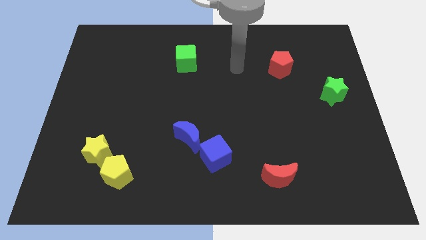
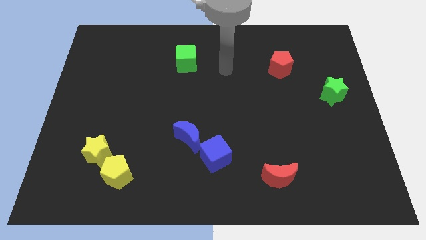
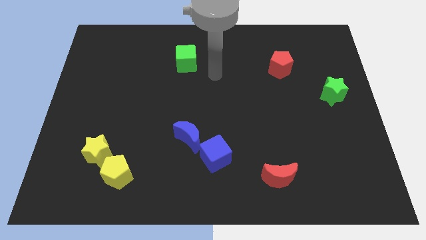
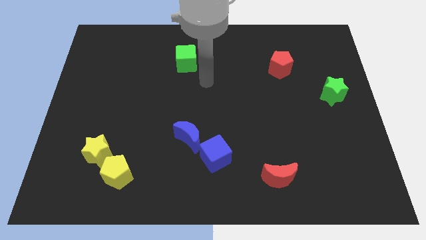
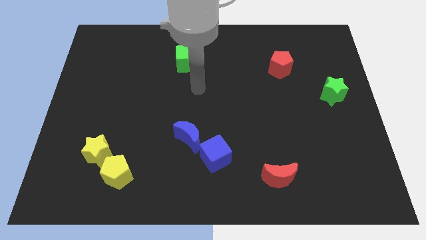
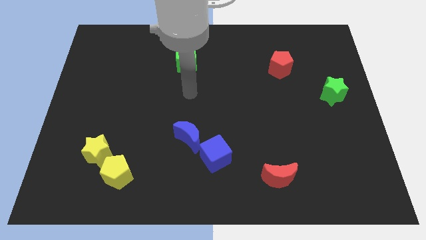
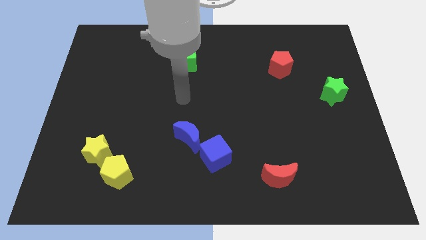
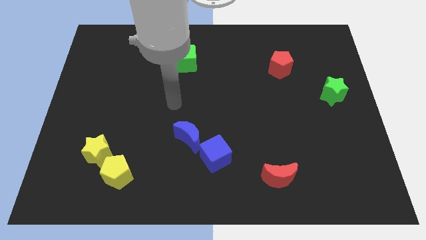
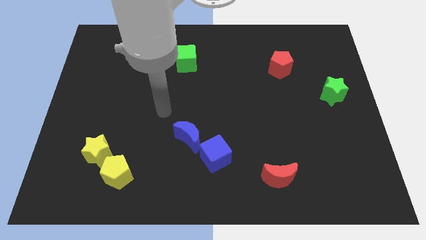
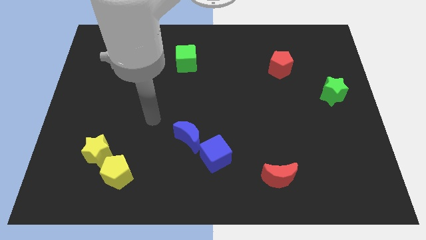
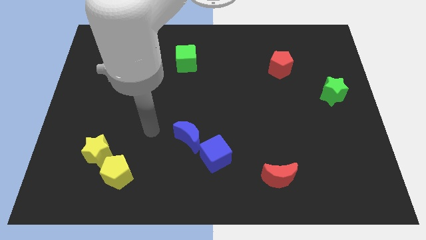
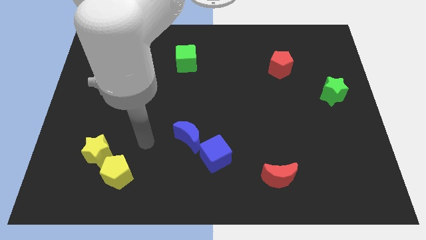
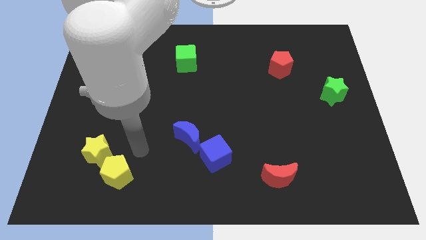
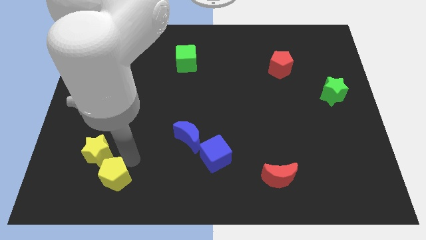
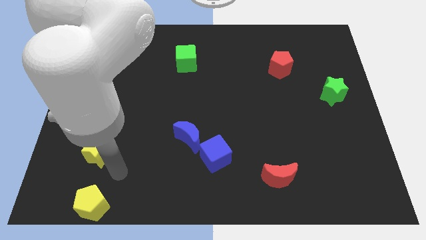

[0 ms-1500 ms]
pull the yellow star apart from the yellow pentagon

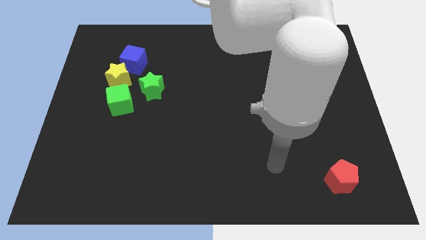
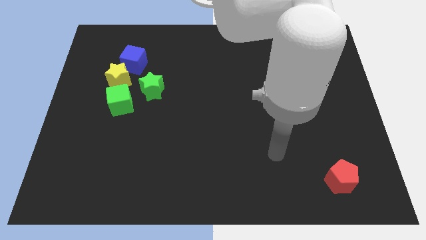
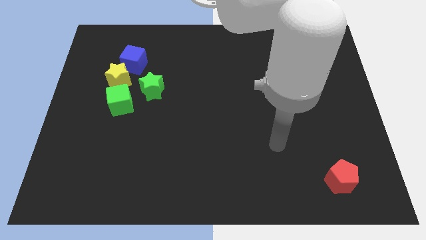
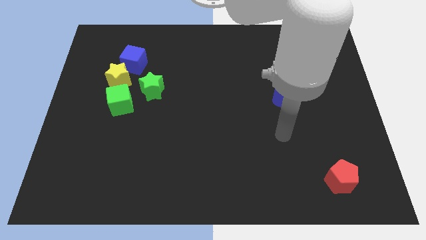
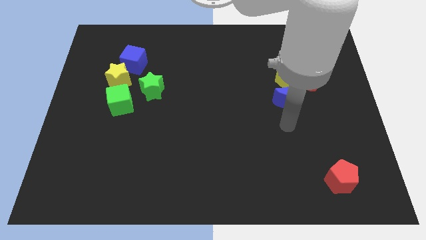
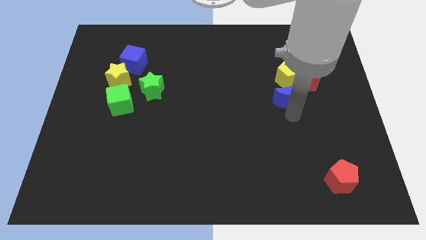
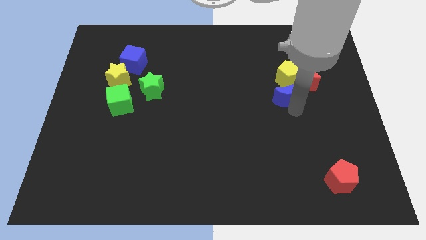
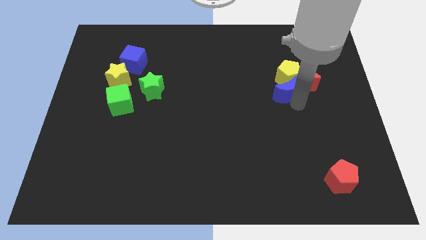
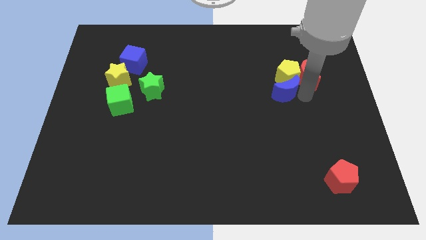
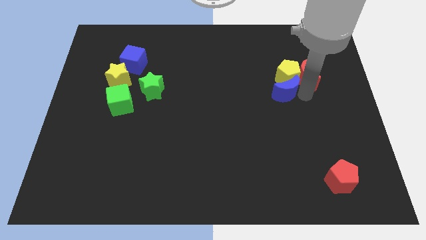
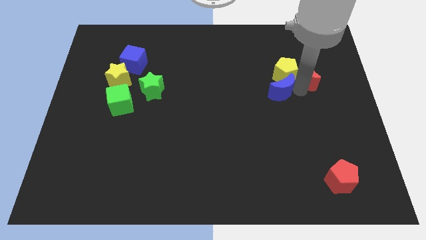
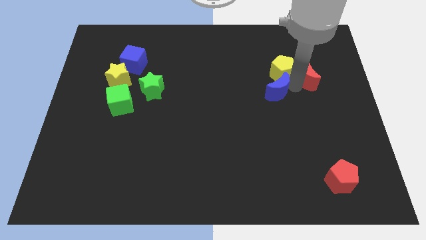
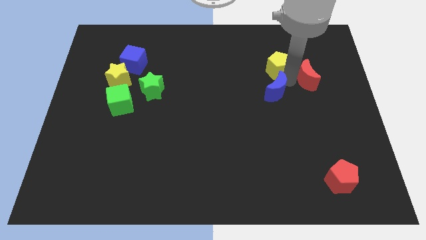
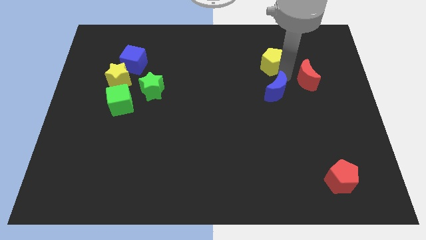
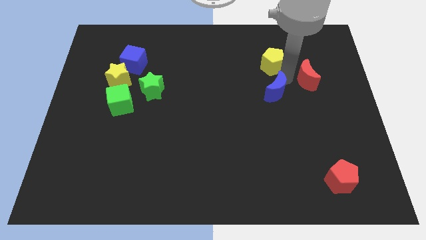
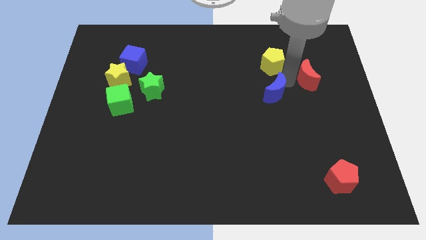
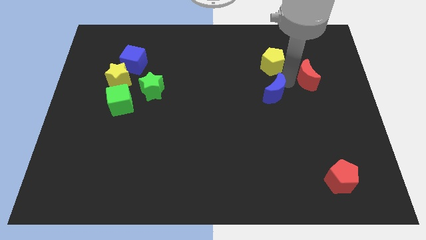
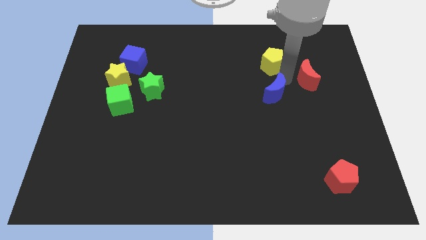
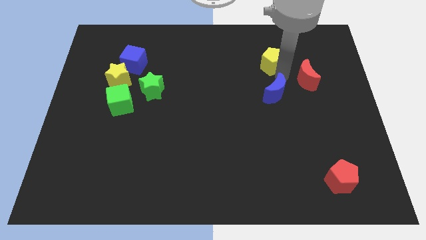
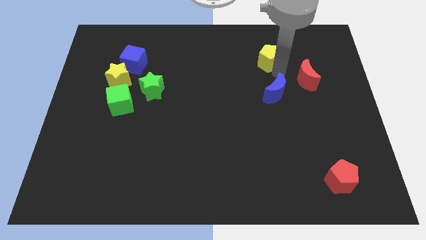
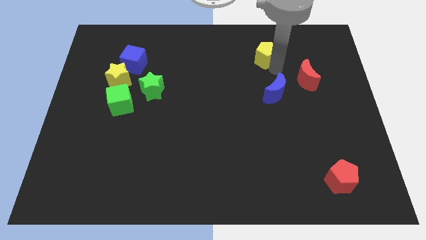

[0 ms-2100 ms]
pull the yellow pentagon apart from the red moon and blue moon

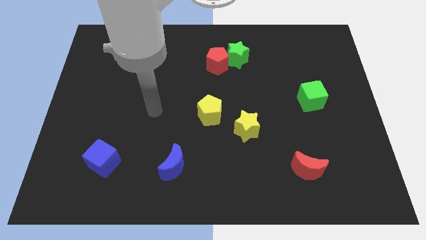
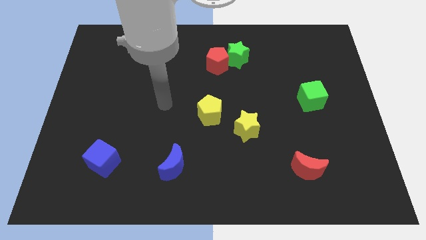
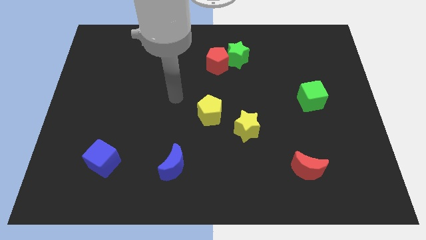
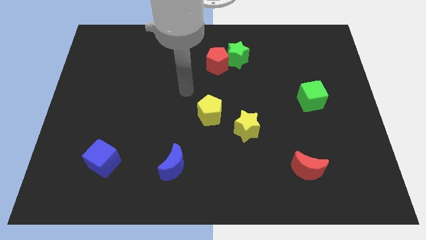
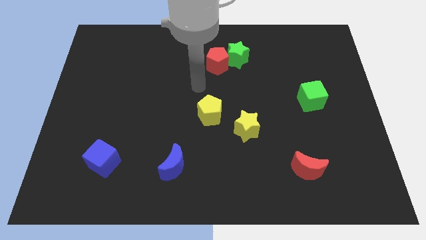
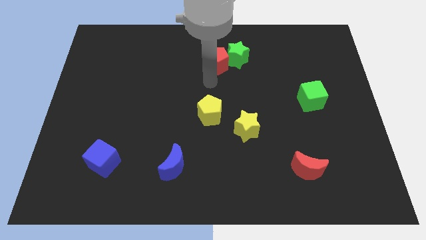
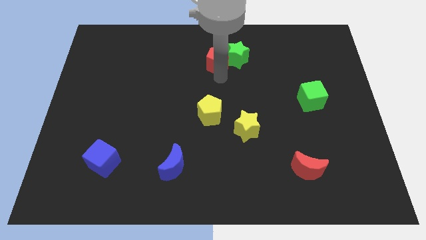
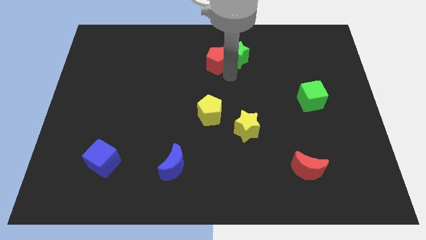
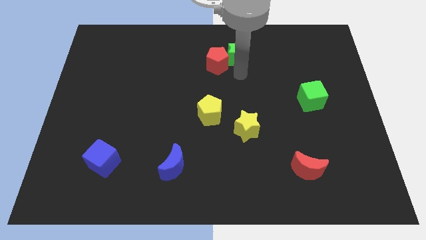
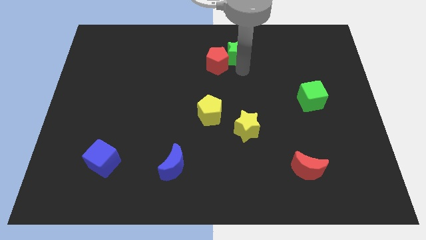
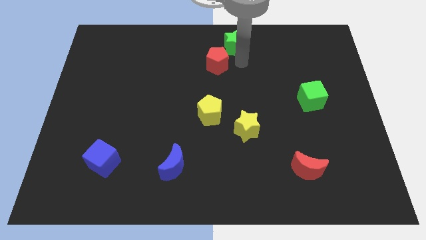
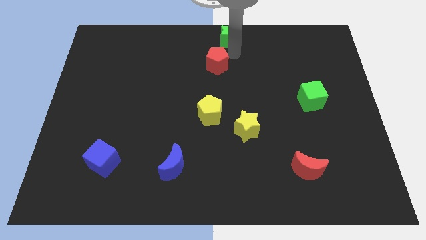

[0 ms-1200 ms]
pull the red pentagon apart from the green star

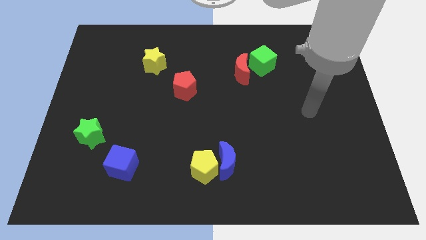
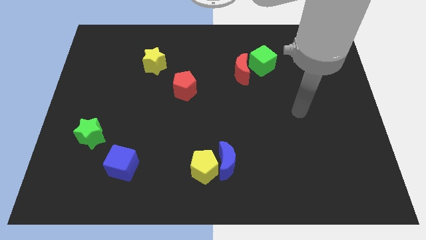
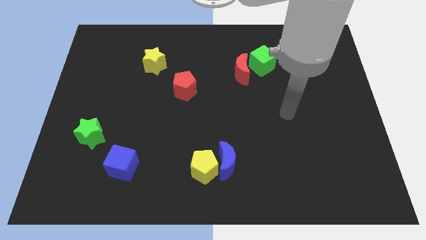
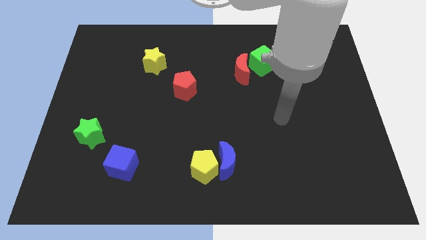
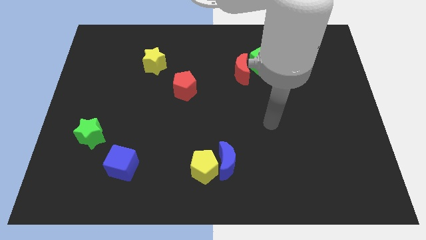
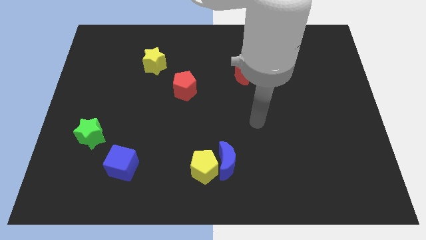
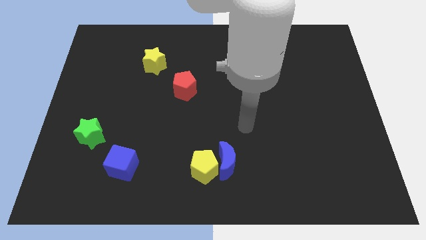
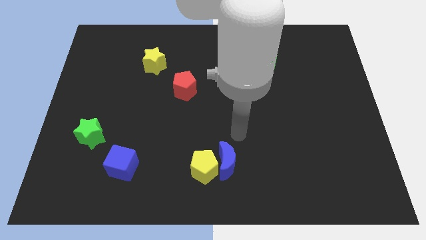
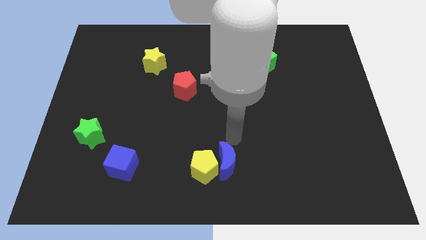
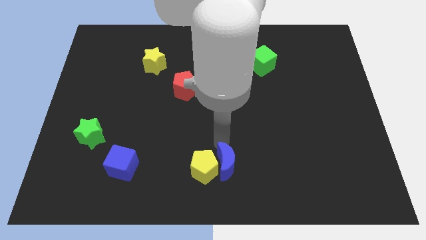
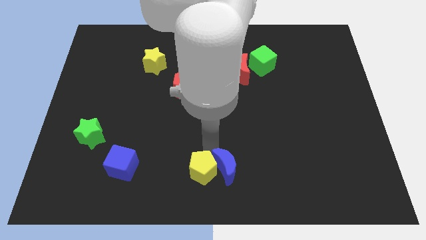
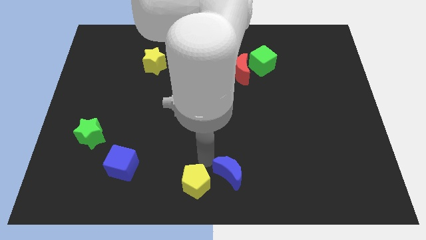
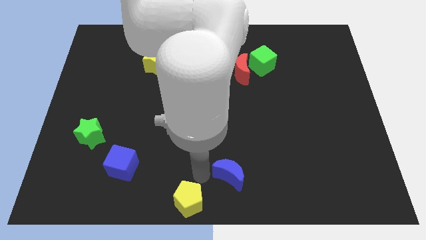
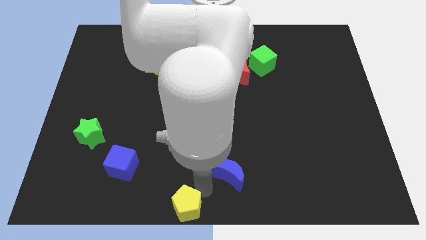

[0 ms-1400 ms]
move the blue moon away from the yellow pentagon

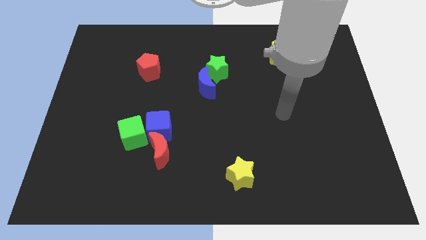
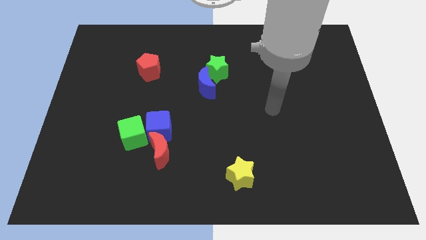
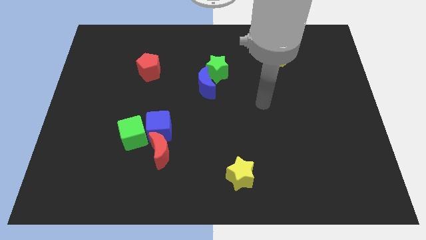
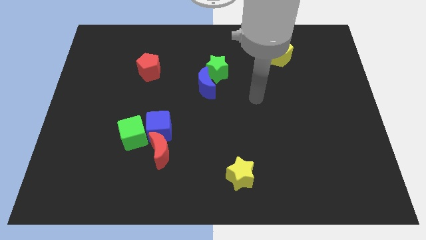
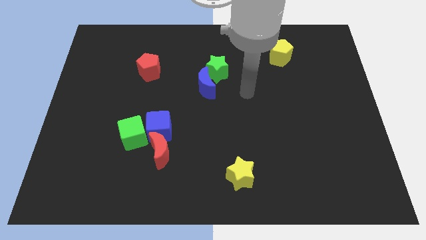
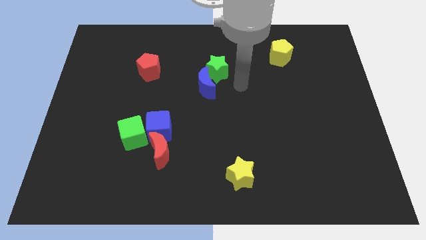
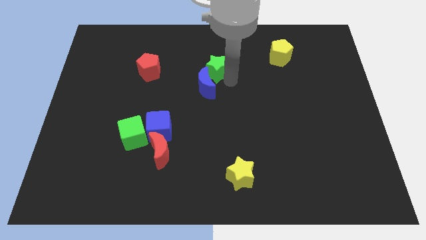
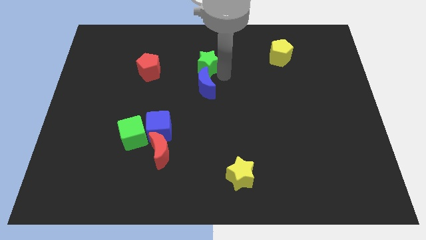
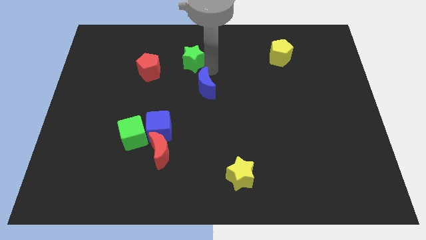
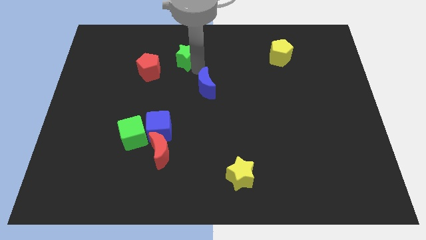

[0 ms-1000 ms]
pull the blue moon apart from the green star

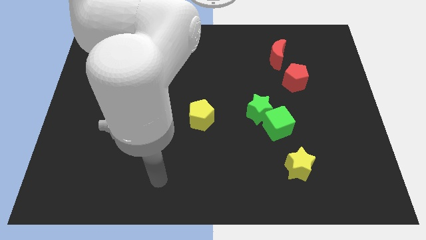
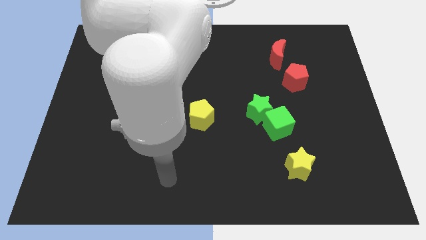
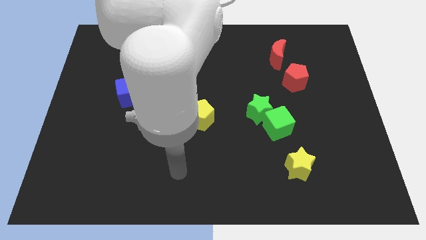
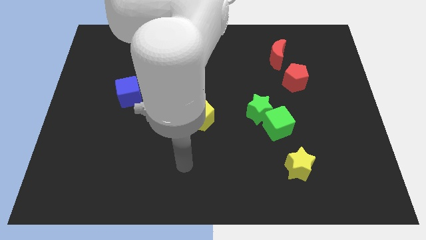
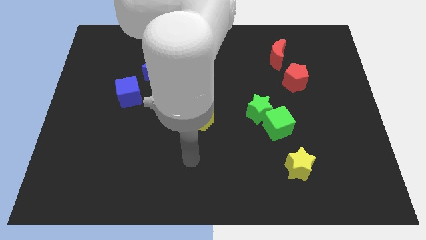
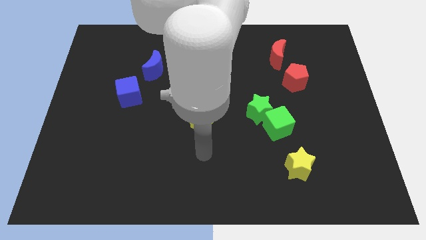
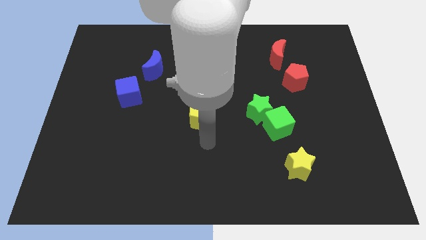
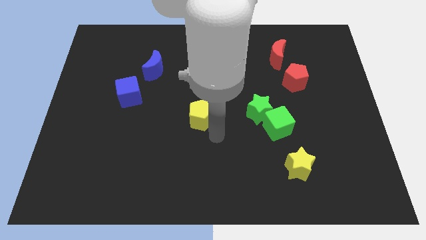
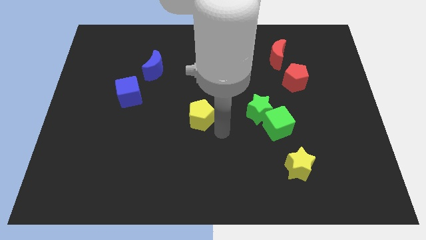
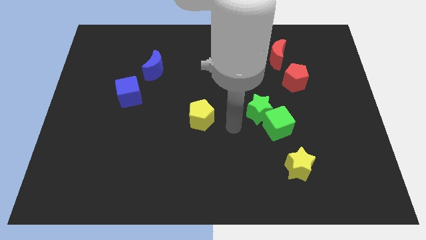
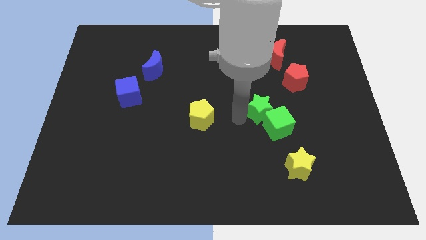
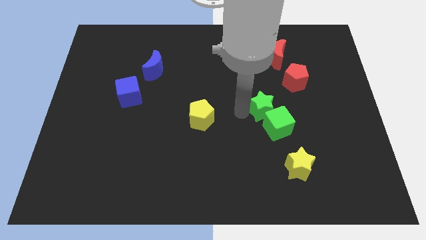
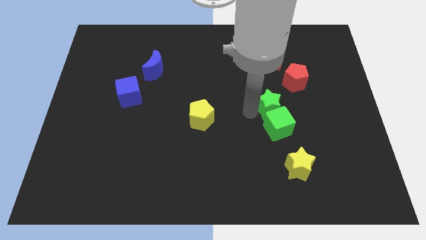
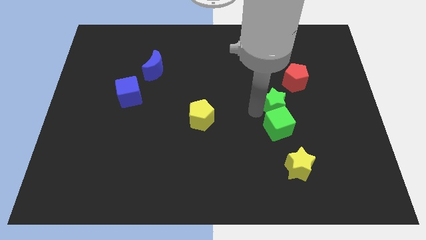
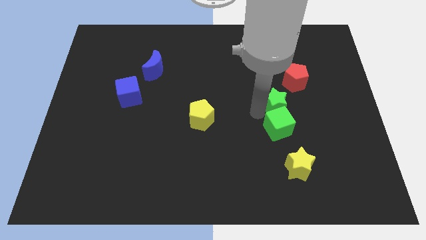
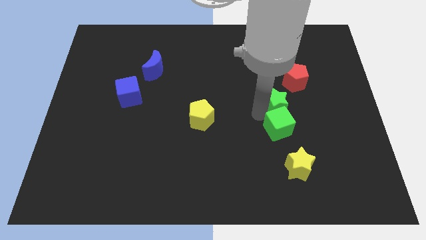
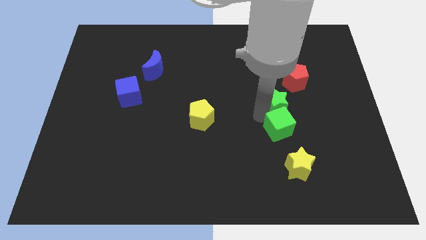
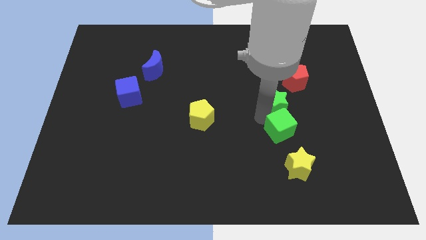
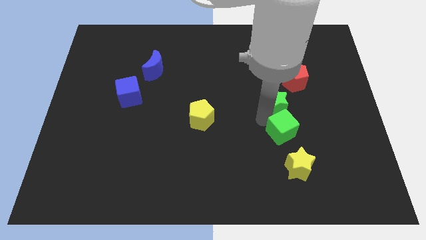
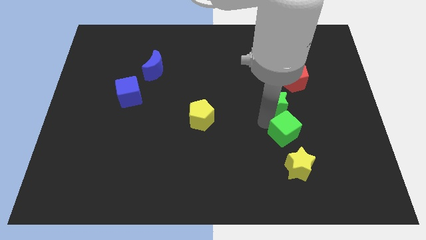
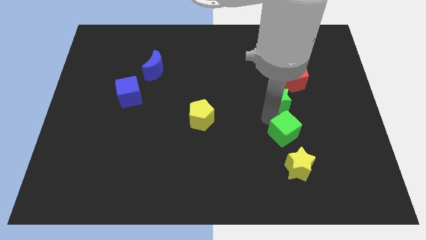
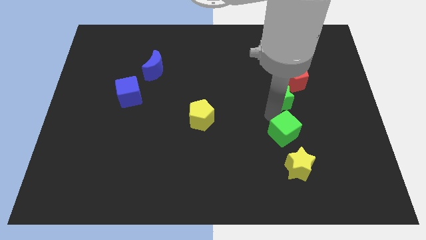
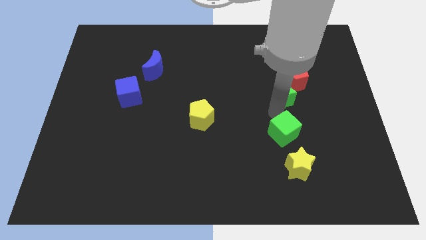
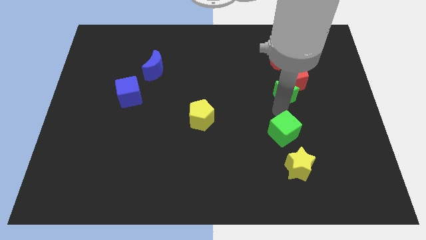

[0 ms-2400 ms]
move the green cube away from the green star
